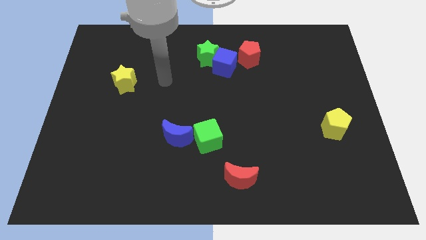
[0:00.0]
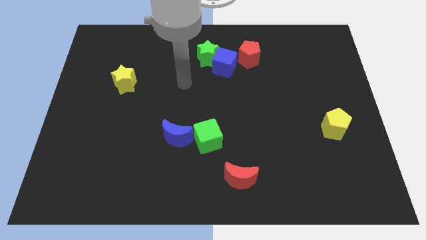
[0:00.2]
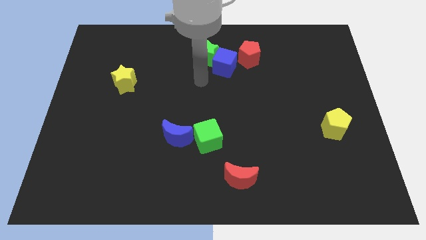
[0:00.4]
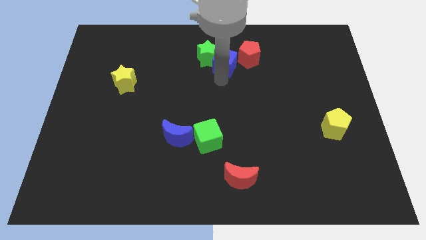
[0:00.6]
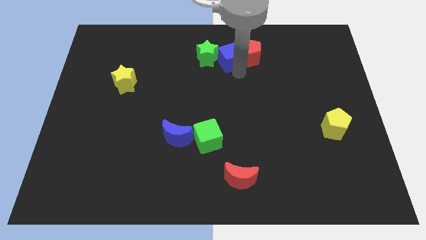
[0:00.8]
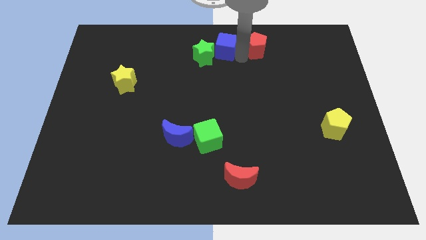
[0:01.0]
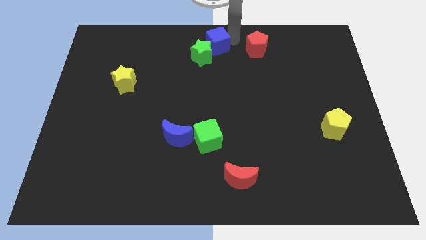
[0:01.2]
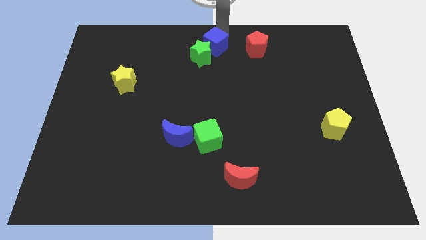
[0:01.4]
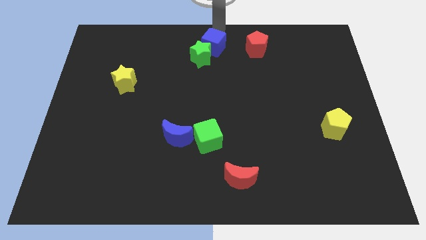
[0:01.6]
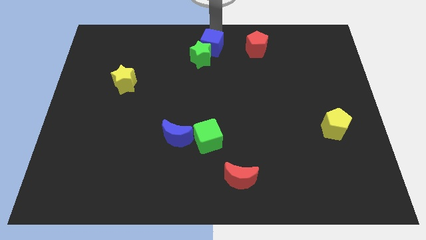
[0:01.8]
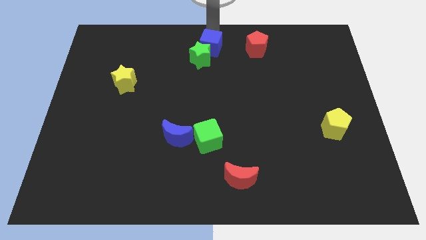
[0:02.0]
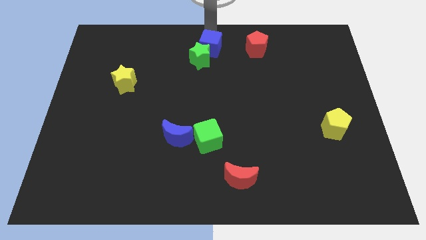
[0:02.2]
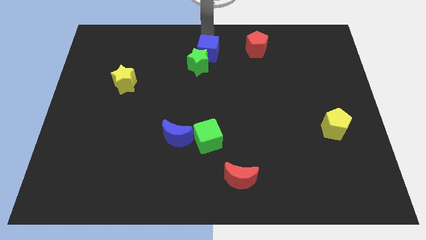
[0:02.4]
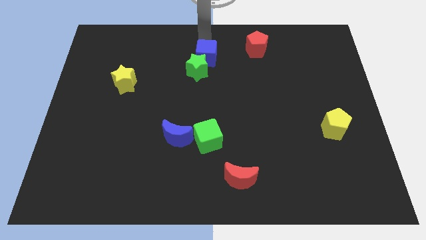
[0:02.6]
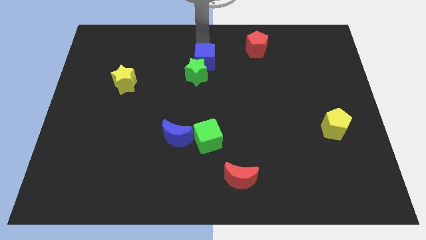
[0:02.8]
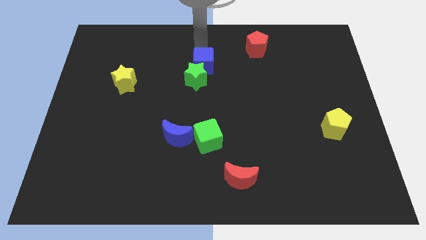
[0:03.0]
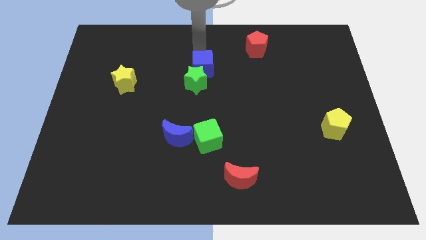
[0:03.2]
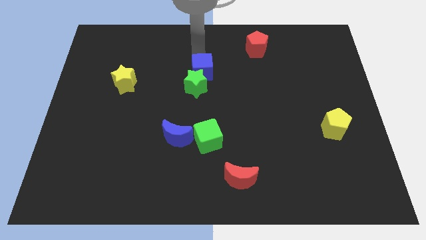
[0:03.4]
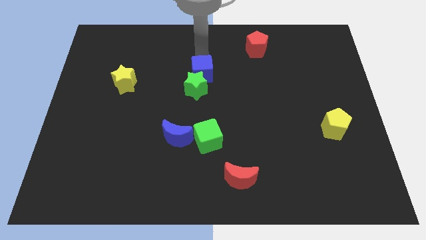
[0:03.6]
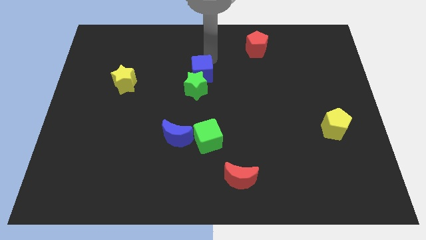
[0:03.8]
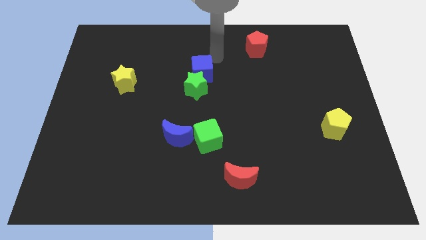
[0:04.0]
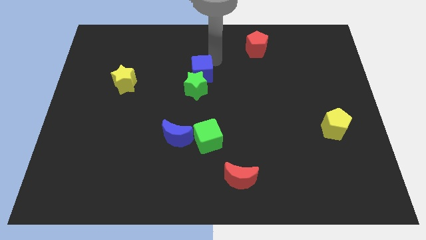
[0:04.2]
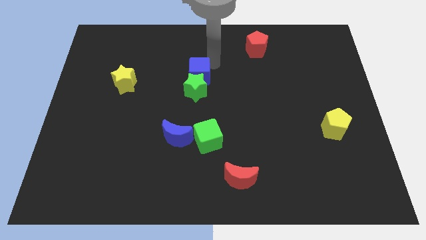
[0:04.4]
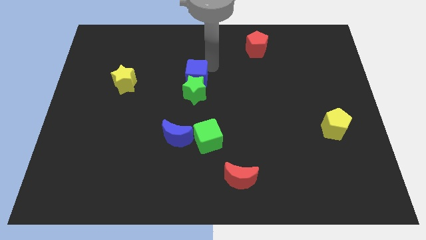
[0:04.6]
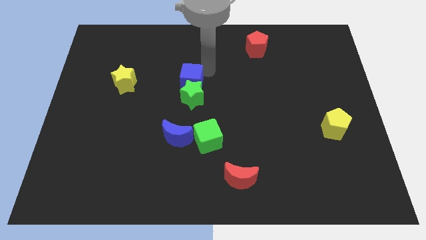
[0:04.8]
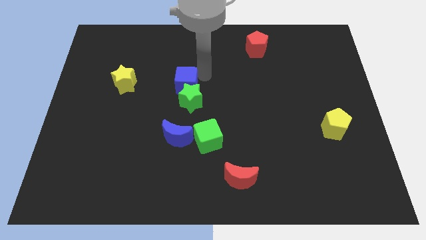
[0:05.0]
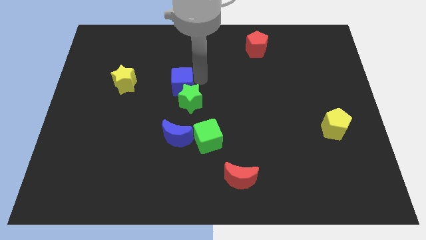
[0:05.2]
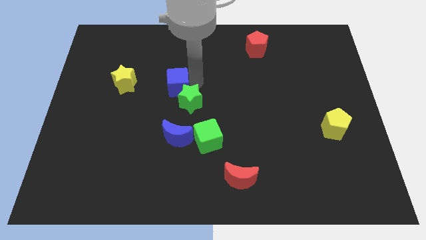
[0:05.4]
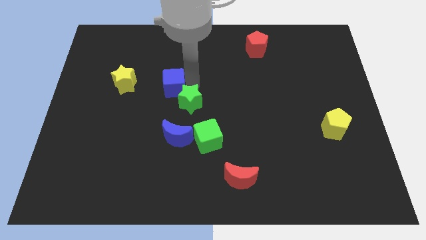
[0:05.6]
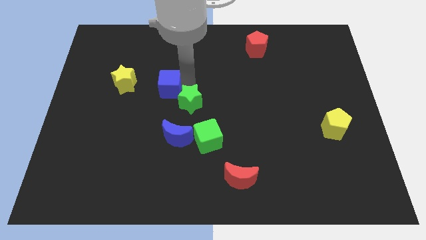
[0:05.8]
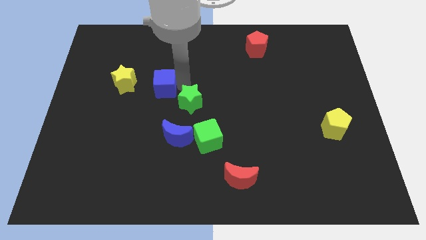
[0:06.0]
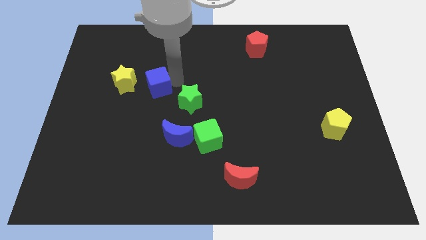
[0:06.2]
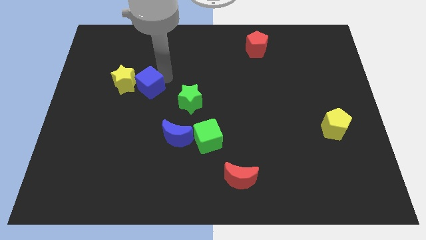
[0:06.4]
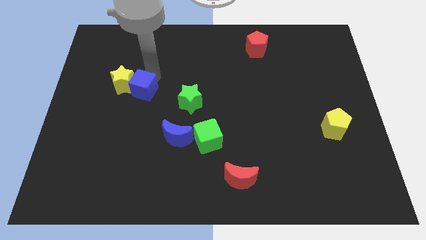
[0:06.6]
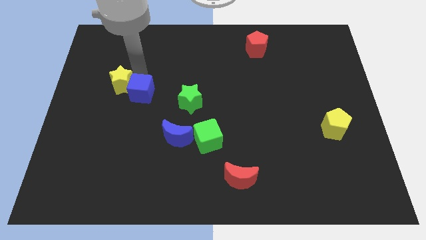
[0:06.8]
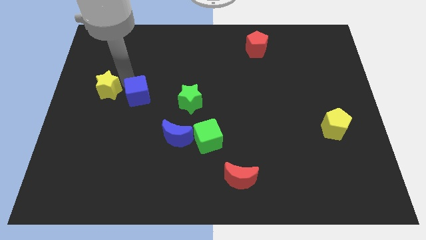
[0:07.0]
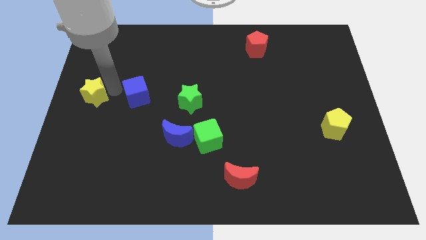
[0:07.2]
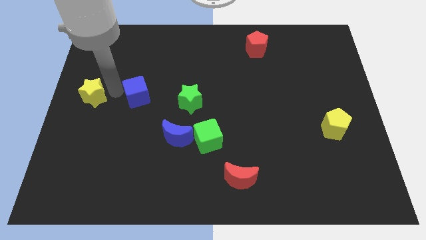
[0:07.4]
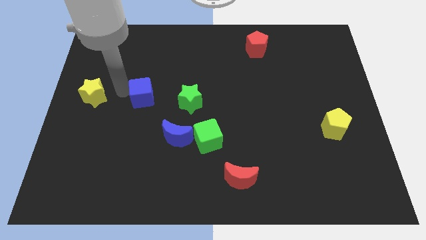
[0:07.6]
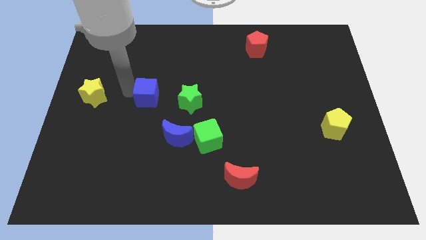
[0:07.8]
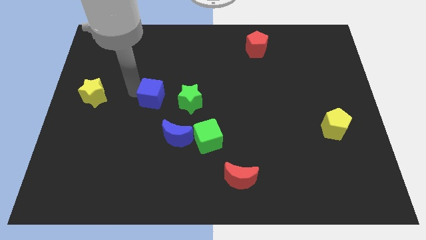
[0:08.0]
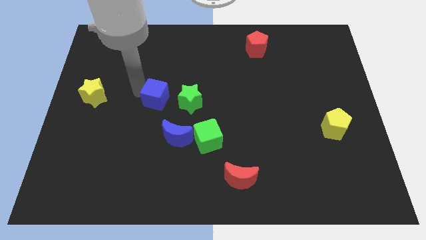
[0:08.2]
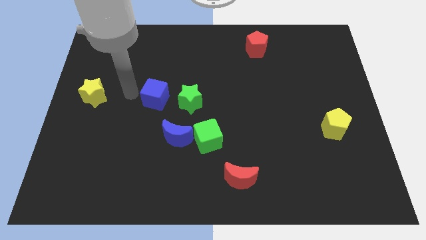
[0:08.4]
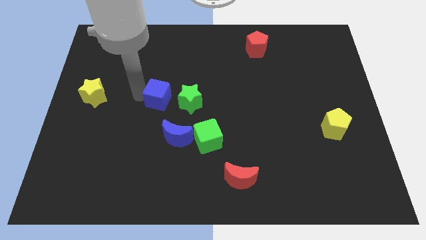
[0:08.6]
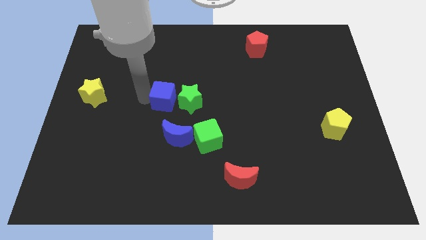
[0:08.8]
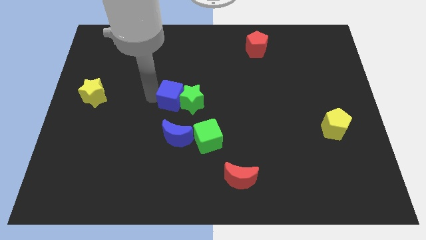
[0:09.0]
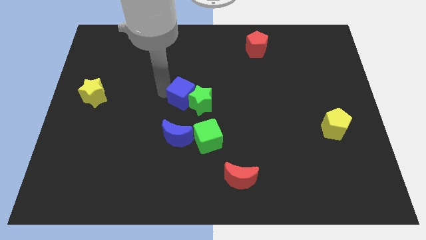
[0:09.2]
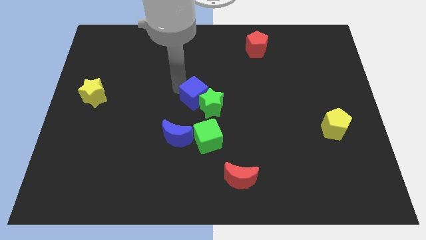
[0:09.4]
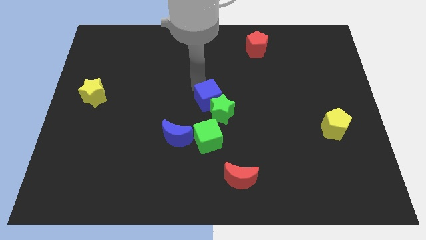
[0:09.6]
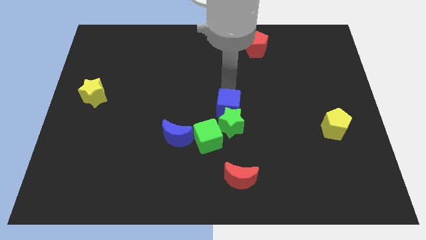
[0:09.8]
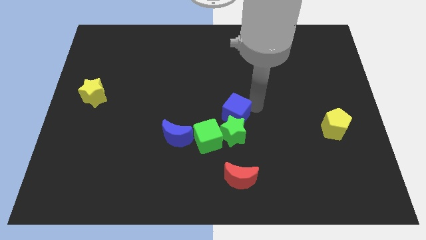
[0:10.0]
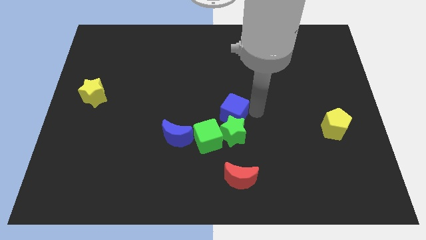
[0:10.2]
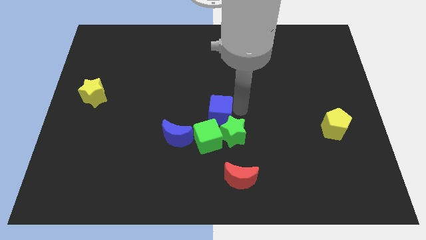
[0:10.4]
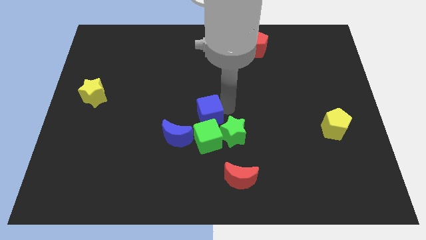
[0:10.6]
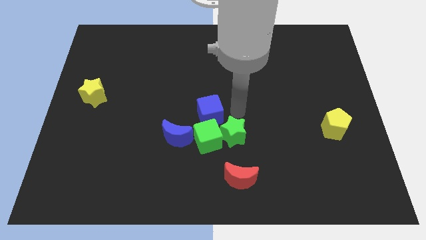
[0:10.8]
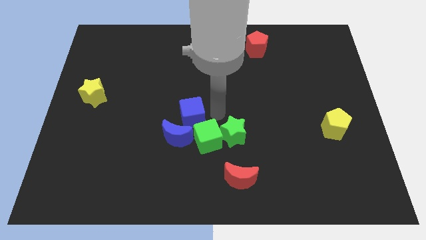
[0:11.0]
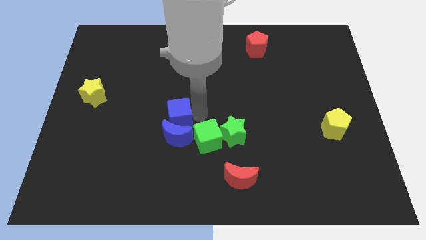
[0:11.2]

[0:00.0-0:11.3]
slide the blue cube to the top left of the blue moon

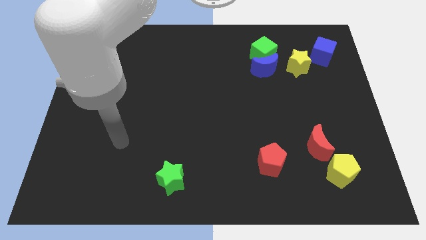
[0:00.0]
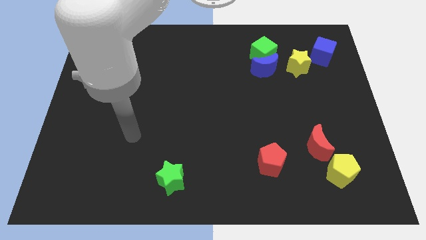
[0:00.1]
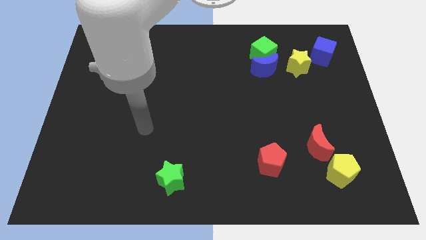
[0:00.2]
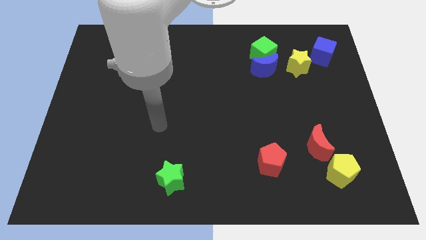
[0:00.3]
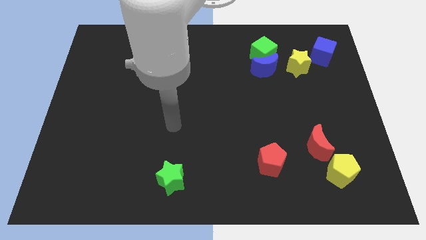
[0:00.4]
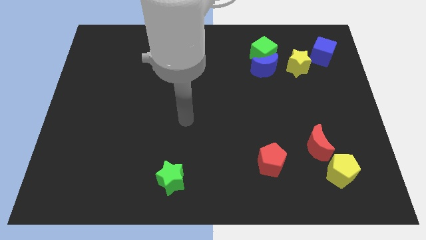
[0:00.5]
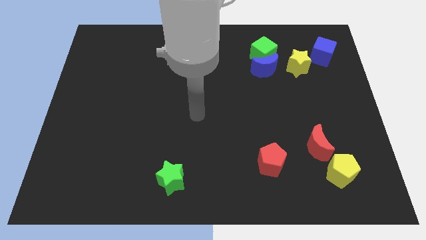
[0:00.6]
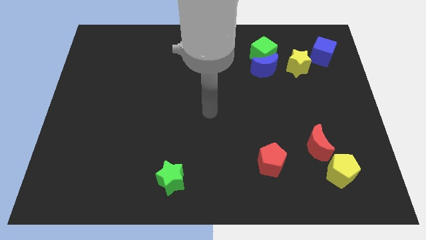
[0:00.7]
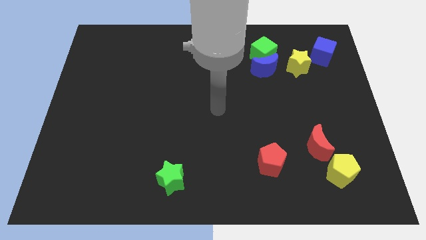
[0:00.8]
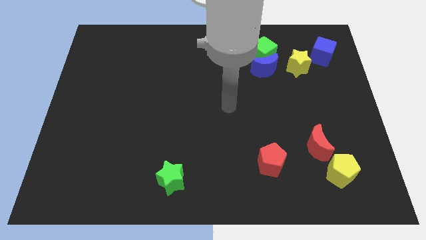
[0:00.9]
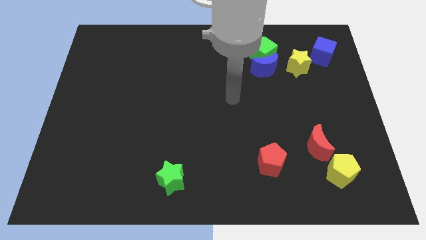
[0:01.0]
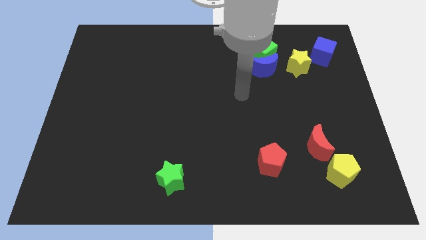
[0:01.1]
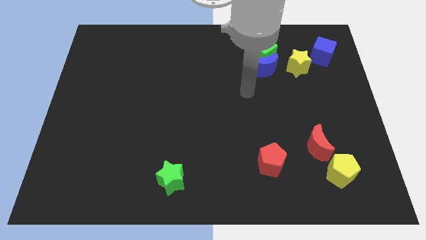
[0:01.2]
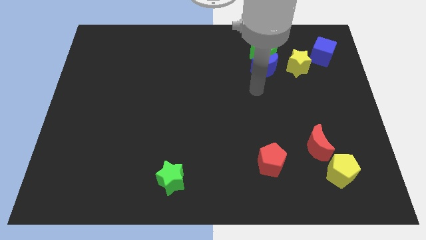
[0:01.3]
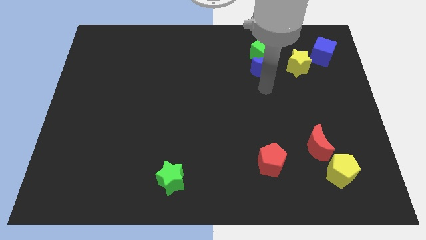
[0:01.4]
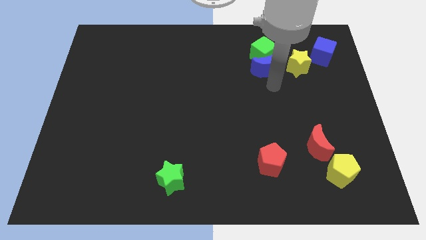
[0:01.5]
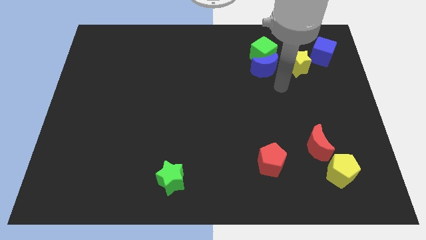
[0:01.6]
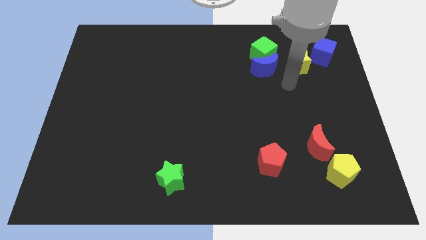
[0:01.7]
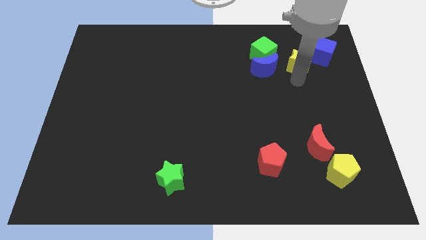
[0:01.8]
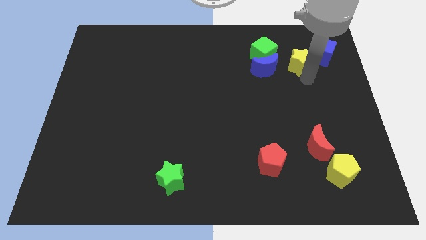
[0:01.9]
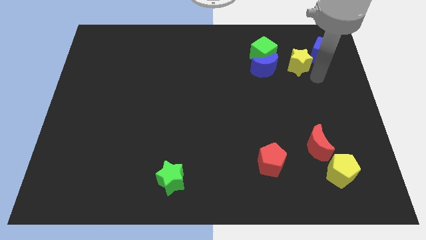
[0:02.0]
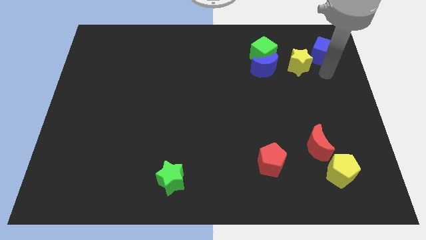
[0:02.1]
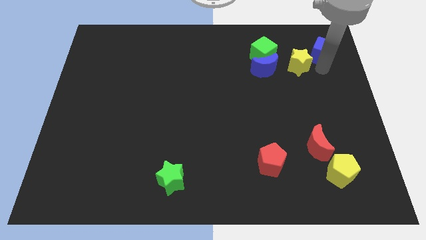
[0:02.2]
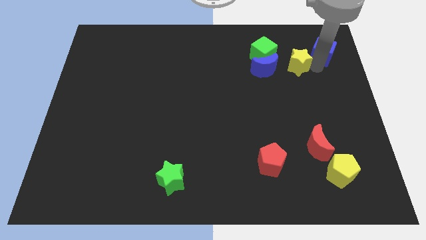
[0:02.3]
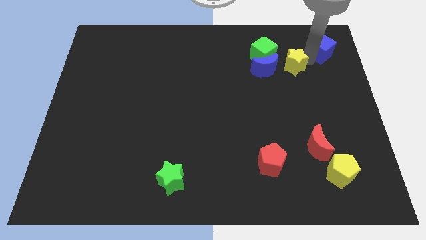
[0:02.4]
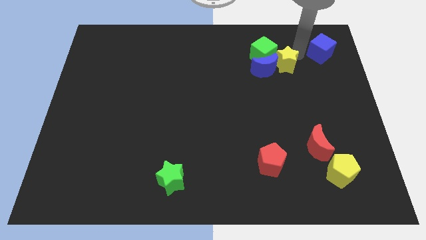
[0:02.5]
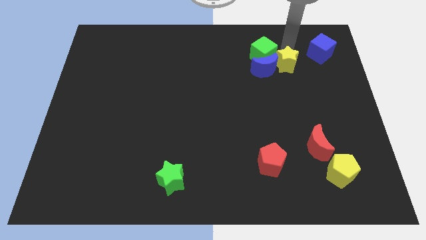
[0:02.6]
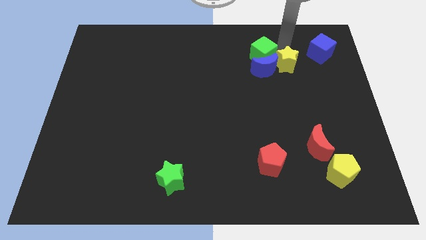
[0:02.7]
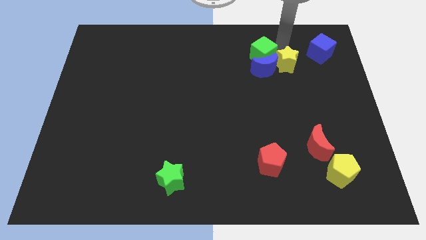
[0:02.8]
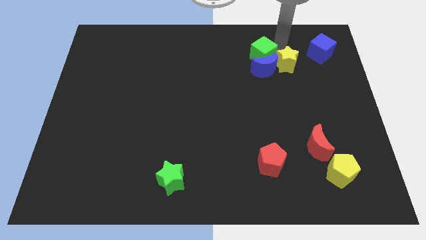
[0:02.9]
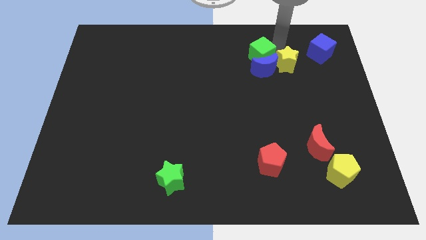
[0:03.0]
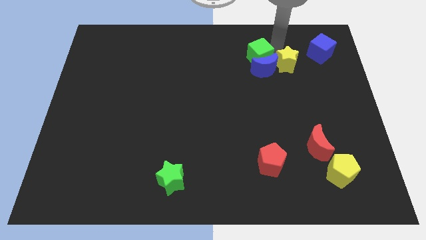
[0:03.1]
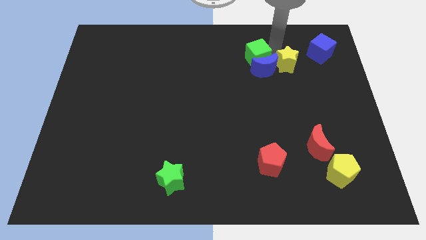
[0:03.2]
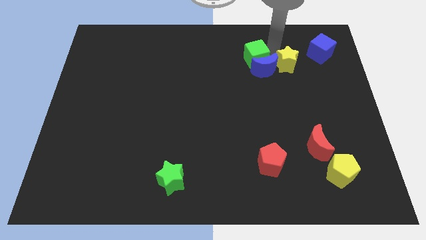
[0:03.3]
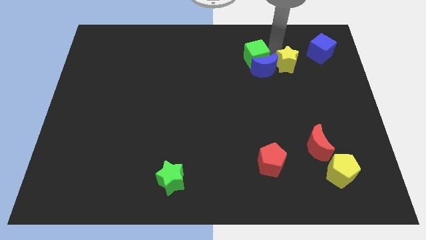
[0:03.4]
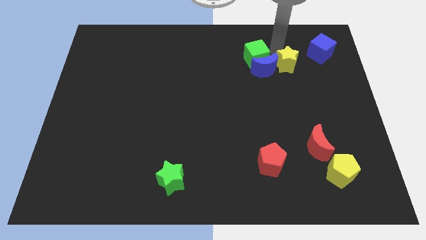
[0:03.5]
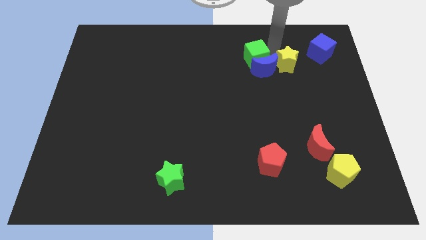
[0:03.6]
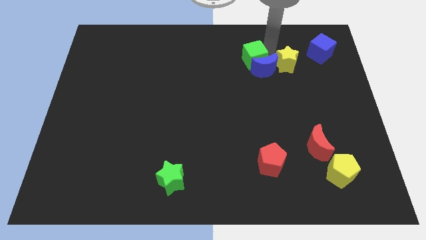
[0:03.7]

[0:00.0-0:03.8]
put the green cube to the left of the blue moon
